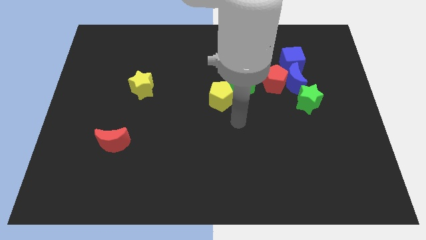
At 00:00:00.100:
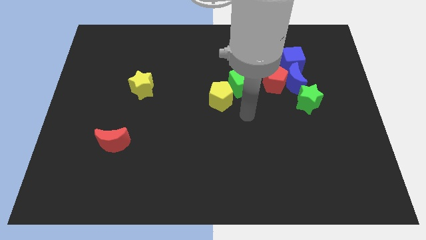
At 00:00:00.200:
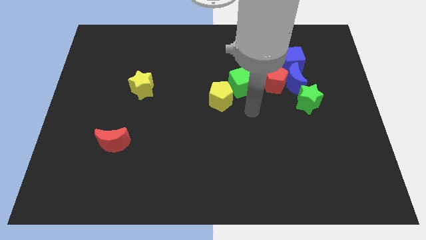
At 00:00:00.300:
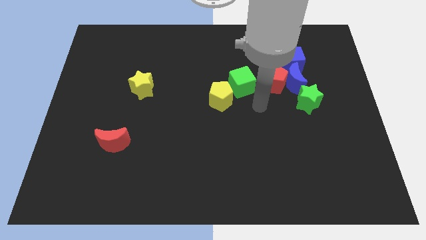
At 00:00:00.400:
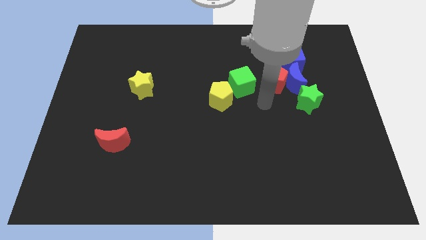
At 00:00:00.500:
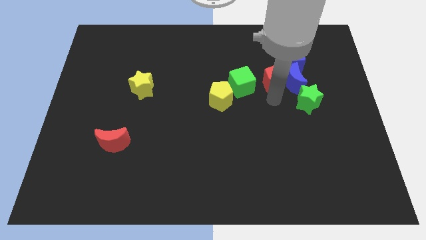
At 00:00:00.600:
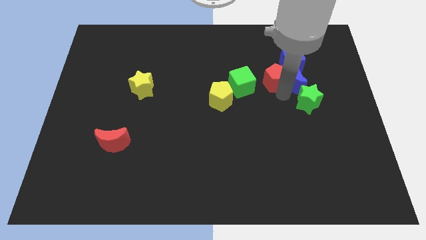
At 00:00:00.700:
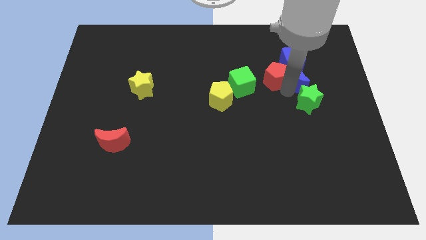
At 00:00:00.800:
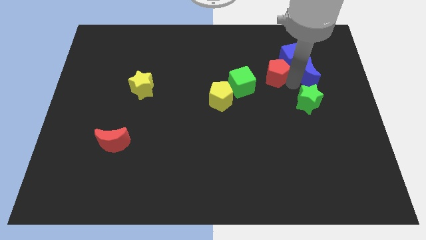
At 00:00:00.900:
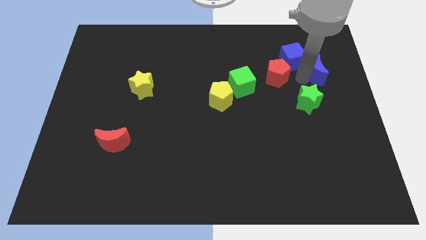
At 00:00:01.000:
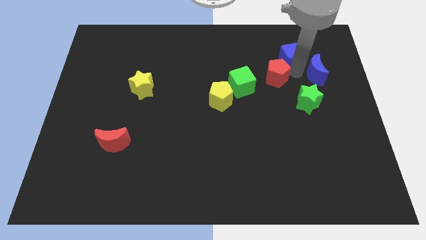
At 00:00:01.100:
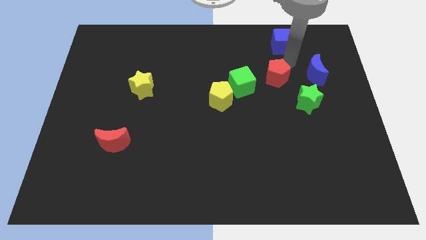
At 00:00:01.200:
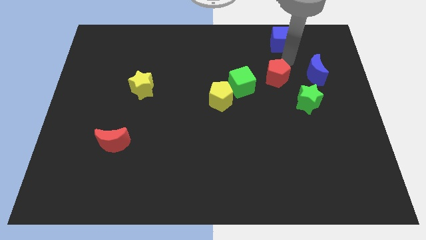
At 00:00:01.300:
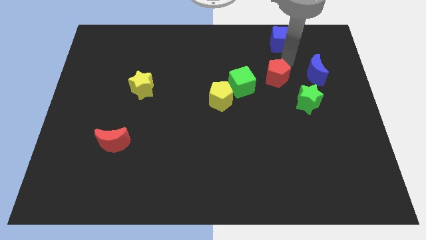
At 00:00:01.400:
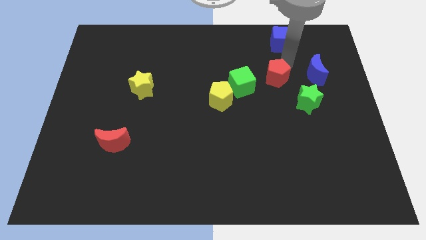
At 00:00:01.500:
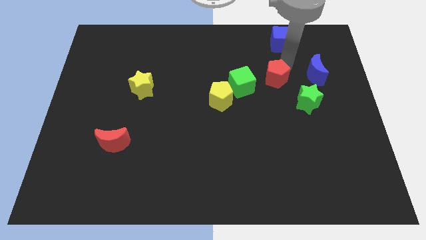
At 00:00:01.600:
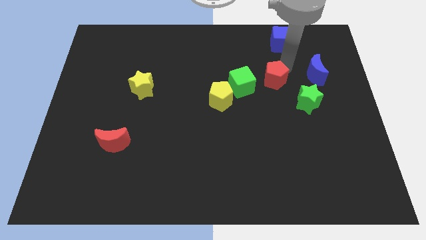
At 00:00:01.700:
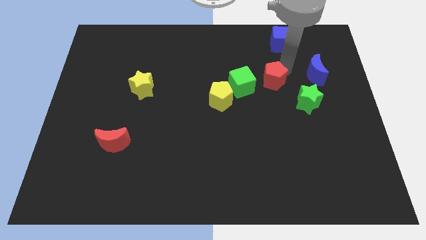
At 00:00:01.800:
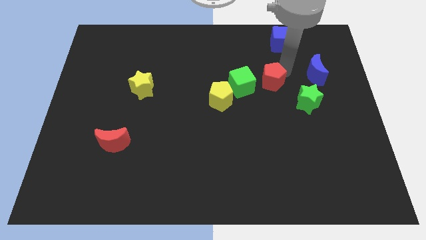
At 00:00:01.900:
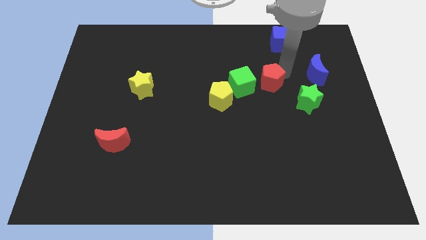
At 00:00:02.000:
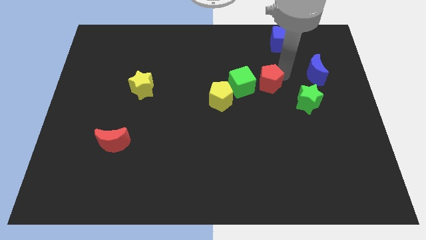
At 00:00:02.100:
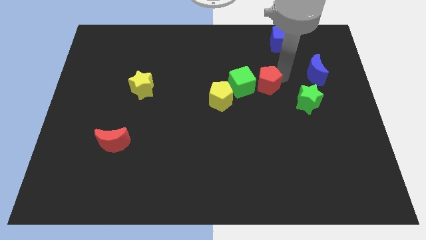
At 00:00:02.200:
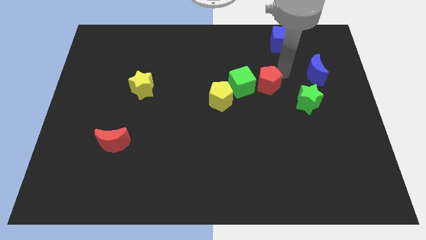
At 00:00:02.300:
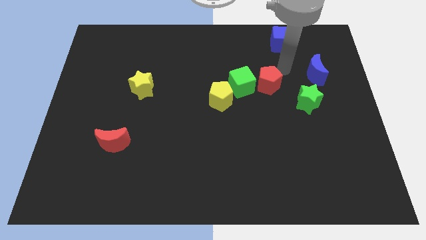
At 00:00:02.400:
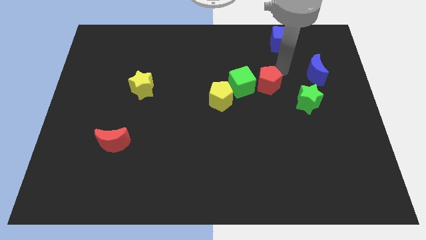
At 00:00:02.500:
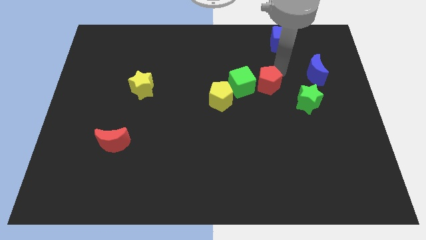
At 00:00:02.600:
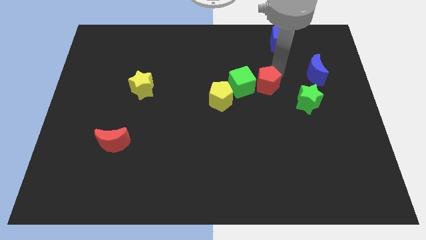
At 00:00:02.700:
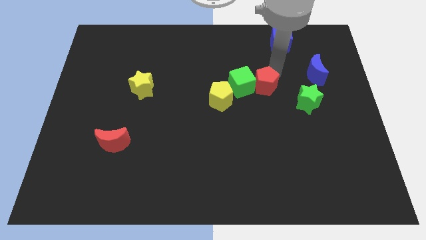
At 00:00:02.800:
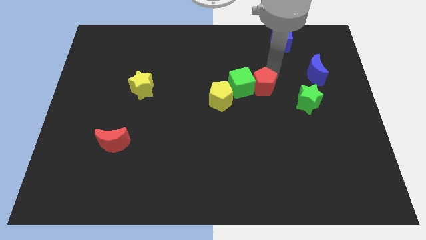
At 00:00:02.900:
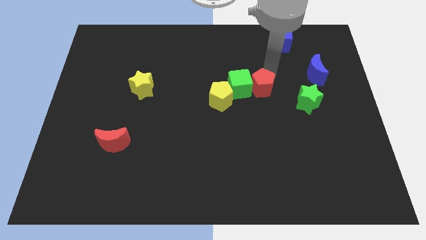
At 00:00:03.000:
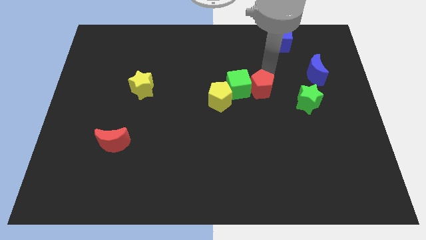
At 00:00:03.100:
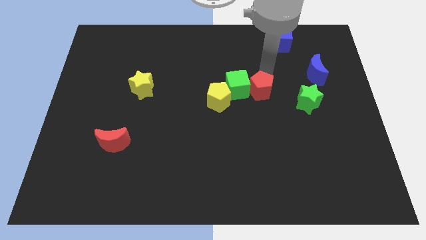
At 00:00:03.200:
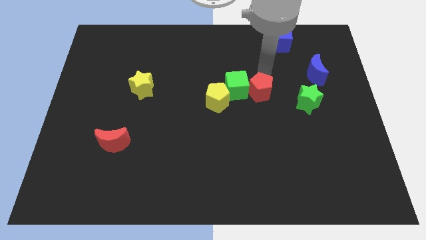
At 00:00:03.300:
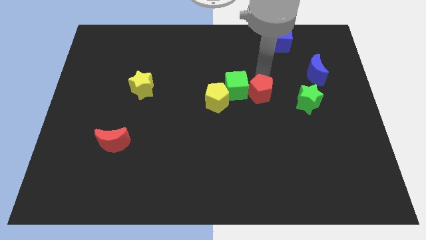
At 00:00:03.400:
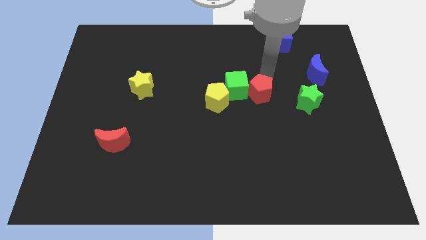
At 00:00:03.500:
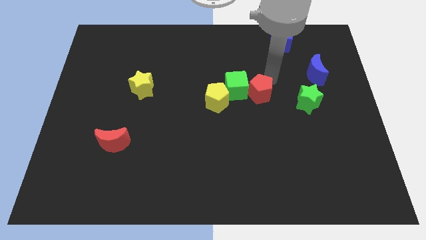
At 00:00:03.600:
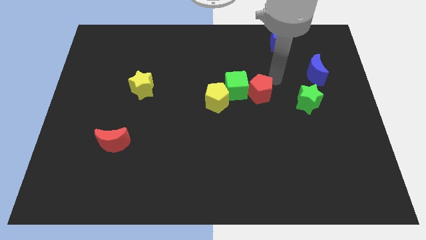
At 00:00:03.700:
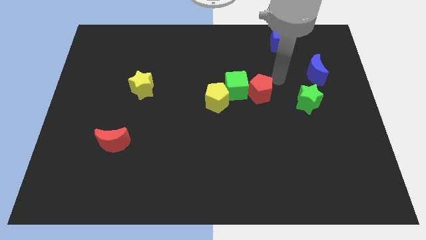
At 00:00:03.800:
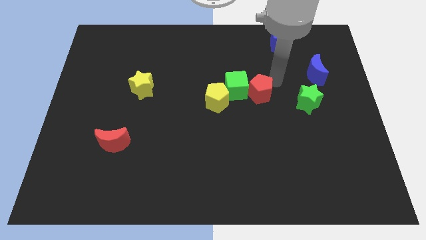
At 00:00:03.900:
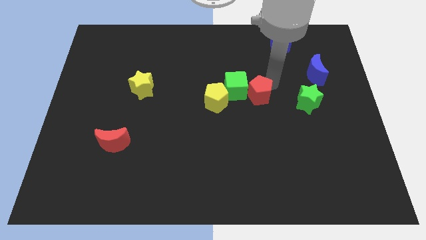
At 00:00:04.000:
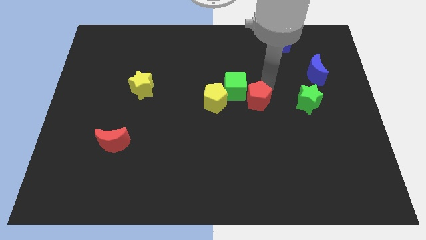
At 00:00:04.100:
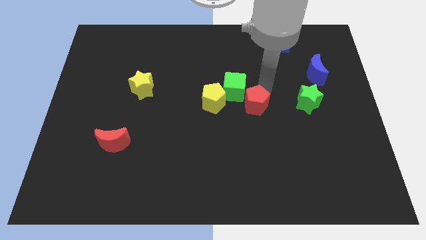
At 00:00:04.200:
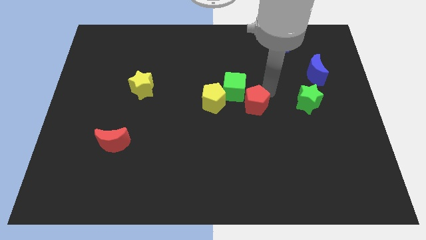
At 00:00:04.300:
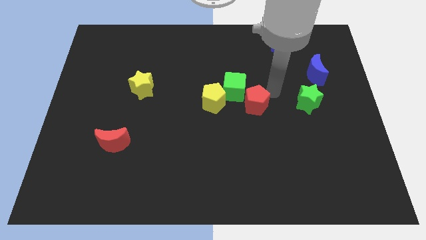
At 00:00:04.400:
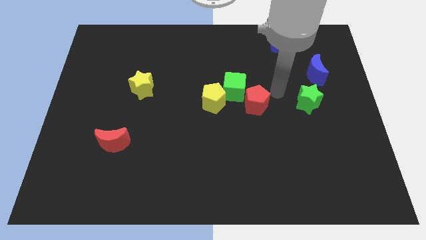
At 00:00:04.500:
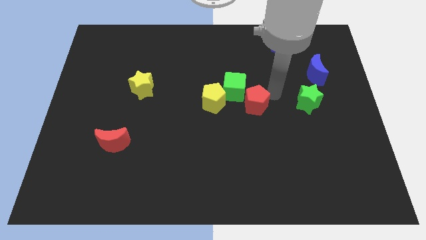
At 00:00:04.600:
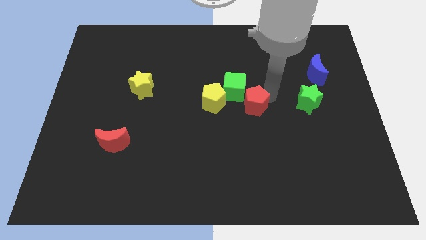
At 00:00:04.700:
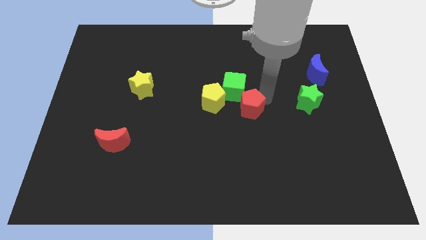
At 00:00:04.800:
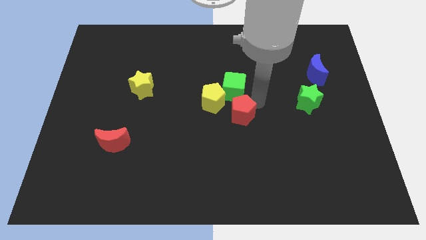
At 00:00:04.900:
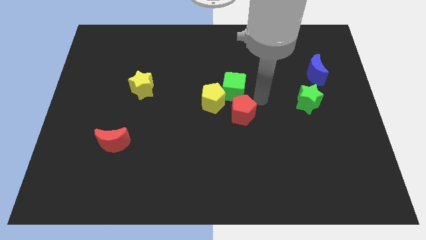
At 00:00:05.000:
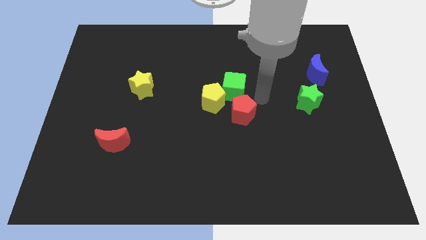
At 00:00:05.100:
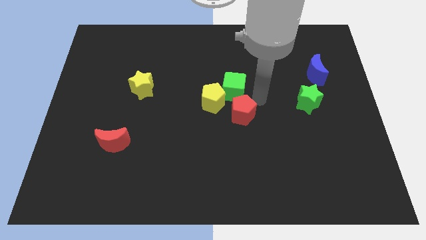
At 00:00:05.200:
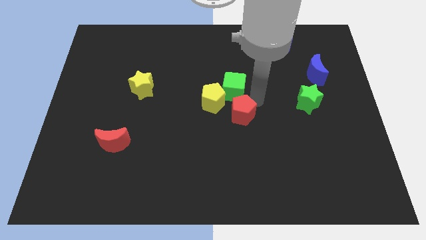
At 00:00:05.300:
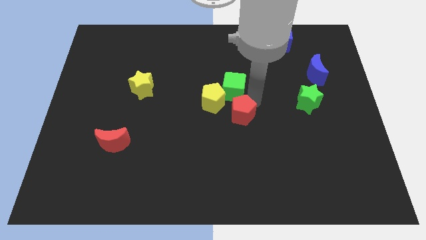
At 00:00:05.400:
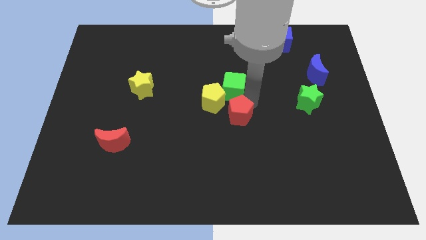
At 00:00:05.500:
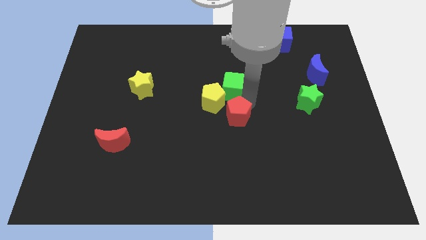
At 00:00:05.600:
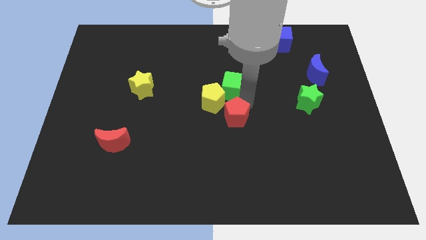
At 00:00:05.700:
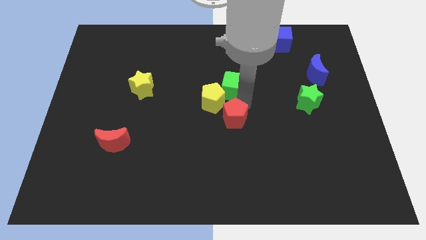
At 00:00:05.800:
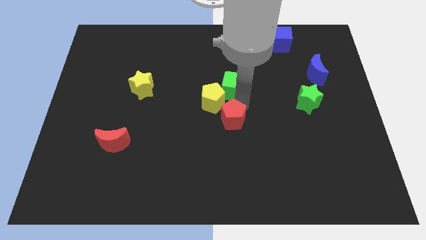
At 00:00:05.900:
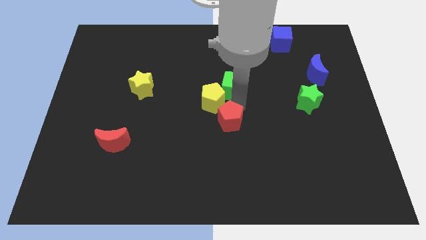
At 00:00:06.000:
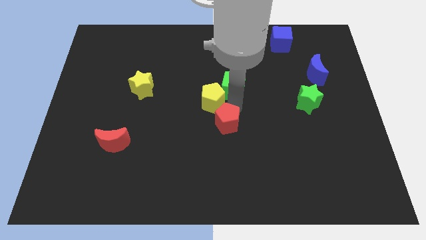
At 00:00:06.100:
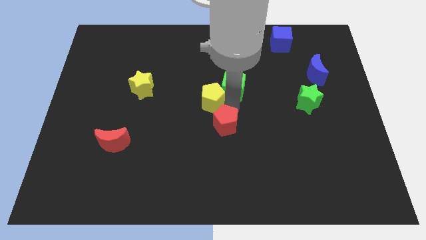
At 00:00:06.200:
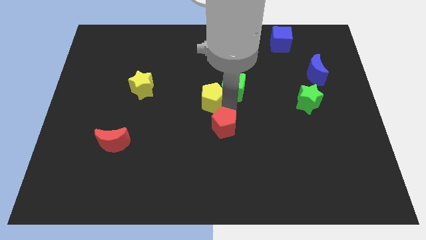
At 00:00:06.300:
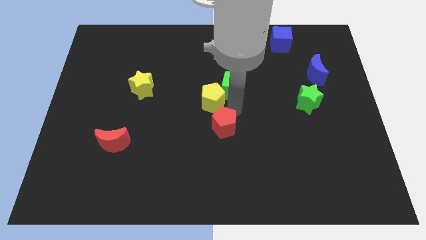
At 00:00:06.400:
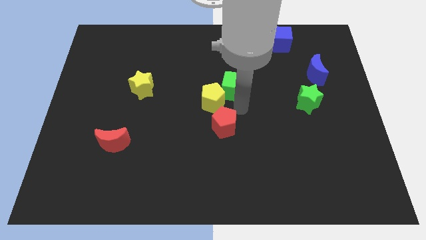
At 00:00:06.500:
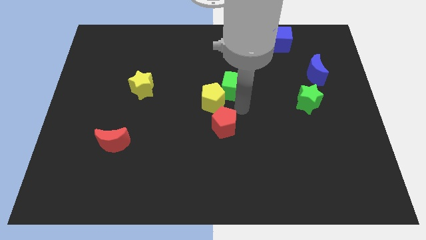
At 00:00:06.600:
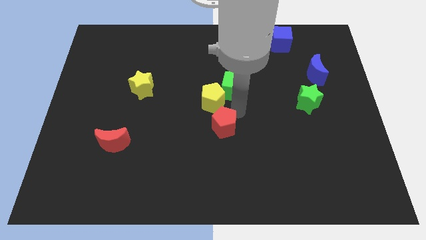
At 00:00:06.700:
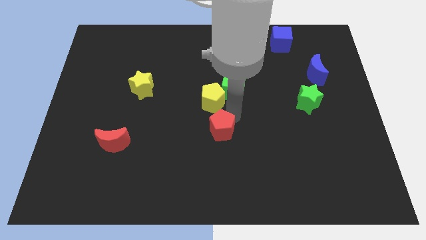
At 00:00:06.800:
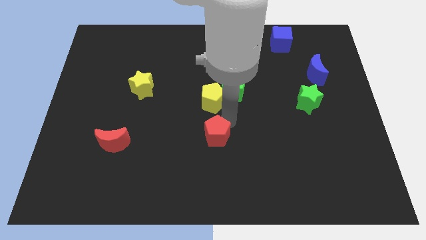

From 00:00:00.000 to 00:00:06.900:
slide the red pentagon down and then left

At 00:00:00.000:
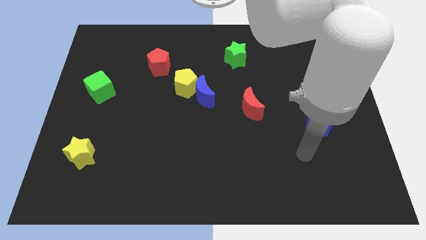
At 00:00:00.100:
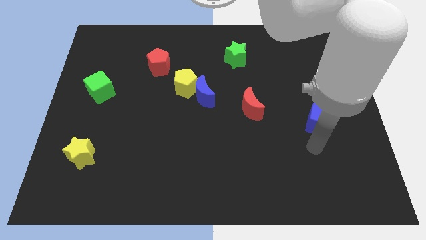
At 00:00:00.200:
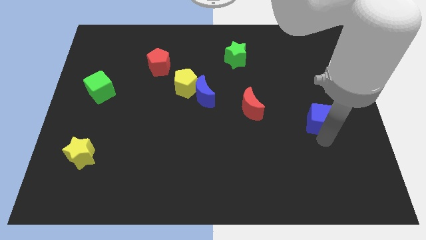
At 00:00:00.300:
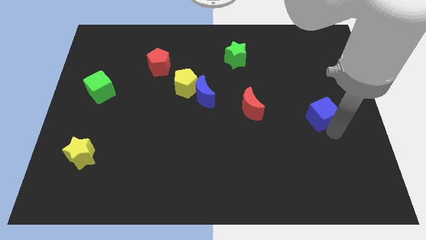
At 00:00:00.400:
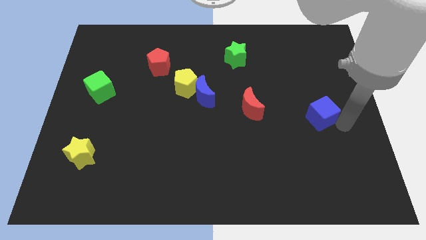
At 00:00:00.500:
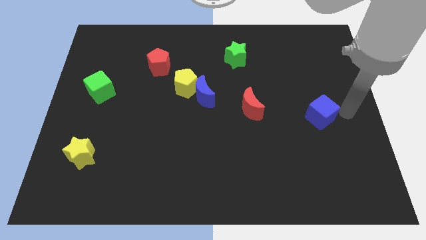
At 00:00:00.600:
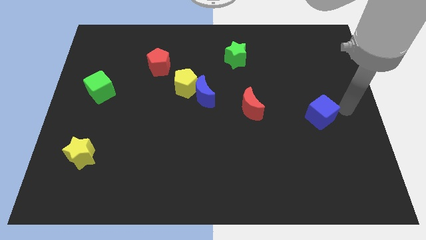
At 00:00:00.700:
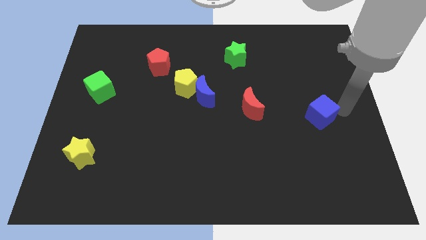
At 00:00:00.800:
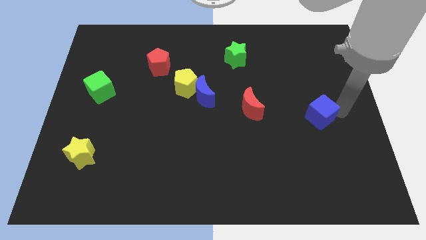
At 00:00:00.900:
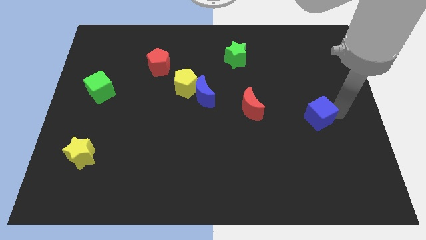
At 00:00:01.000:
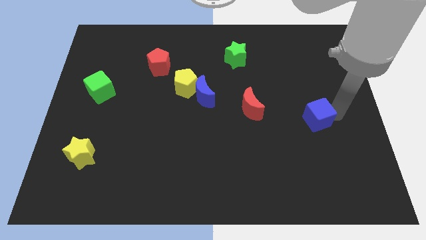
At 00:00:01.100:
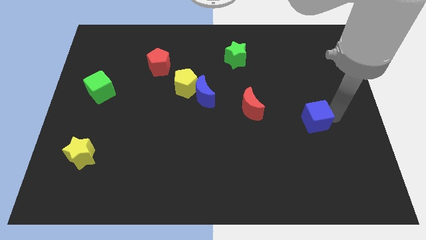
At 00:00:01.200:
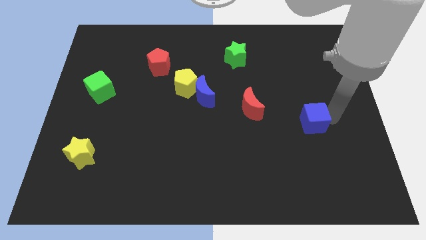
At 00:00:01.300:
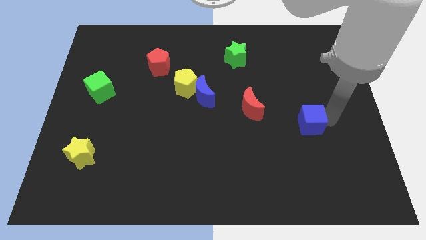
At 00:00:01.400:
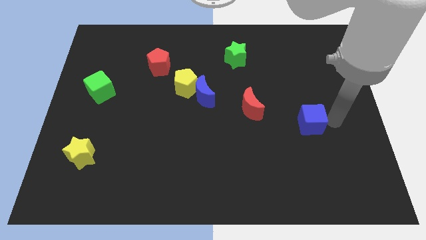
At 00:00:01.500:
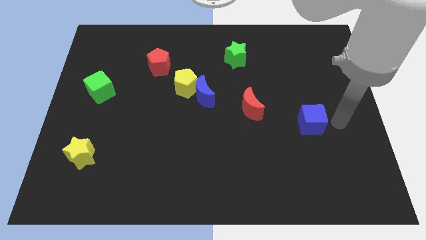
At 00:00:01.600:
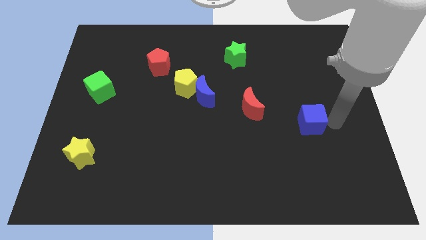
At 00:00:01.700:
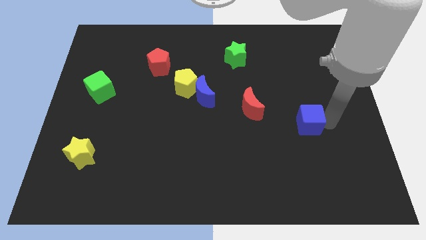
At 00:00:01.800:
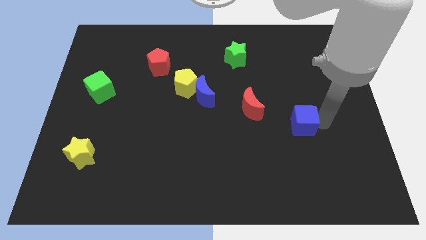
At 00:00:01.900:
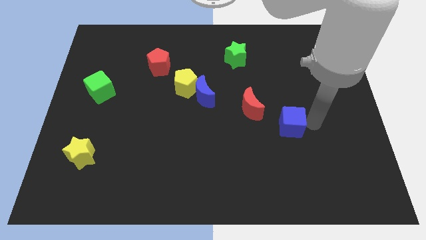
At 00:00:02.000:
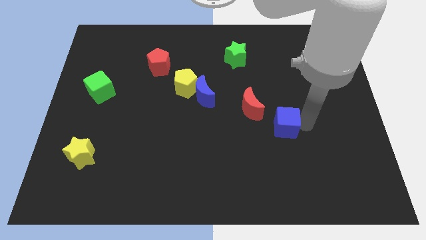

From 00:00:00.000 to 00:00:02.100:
slide the blue cube a little bit left
